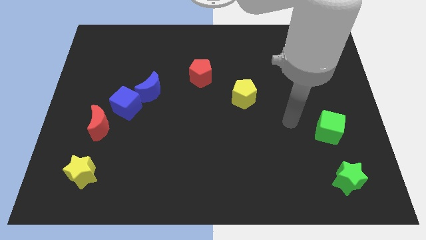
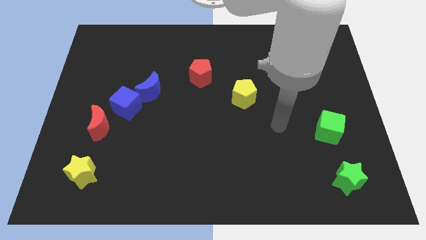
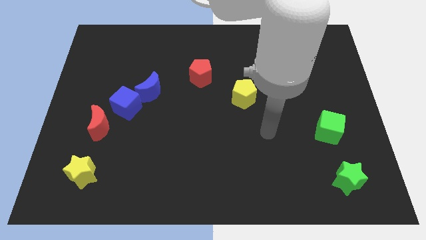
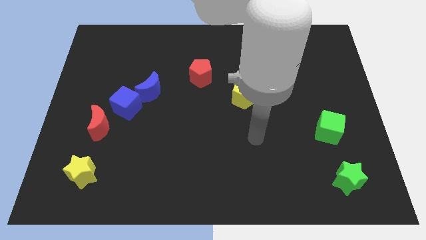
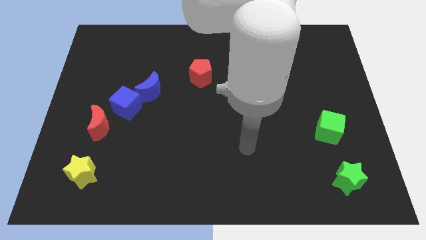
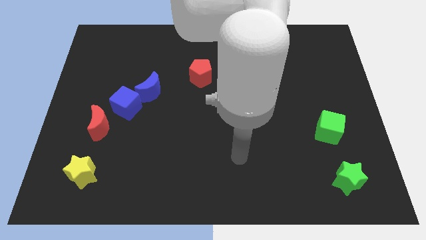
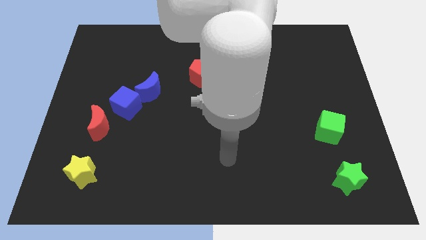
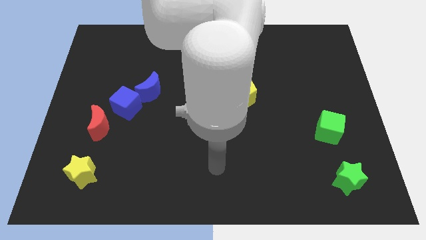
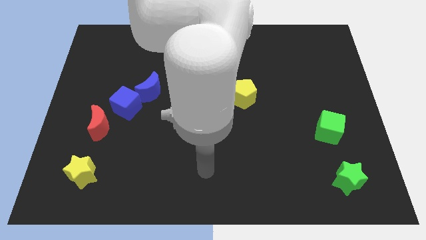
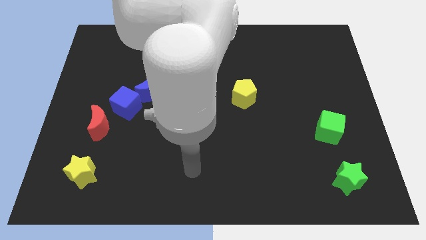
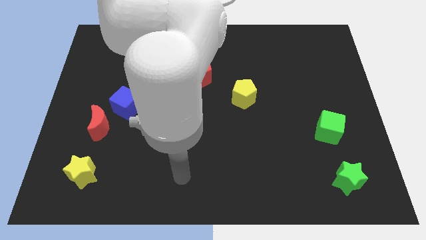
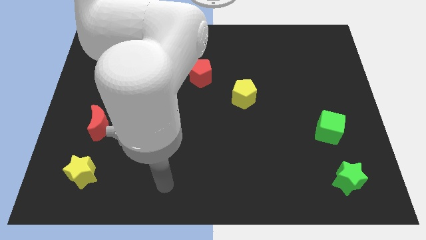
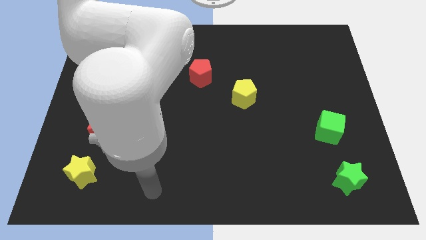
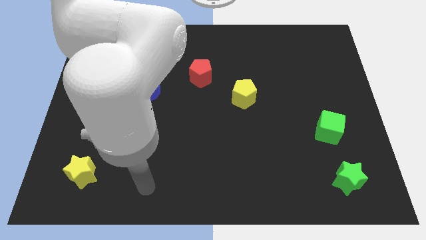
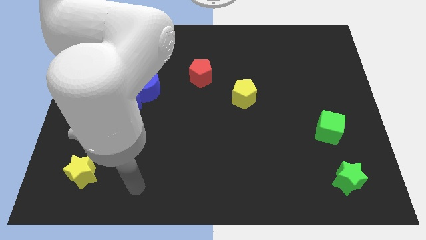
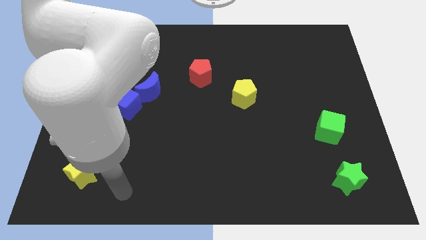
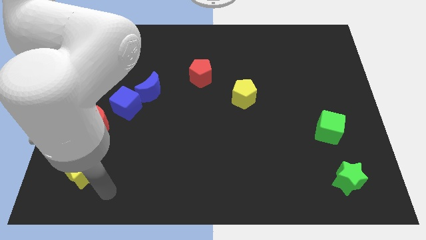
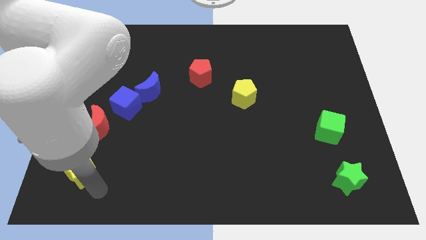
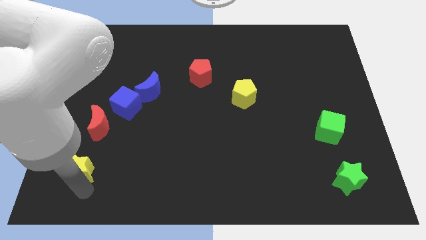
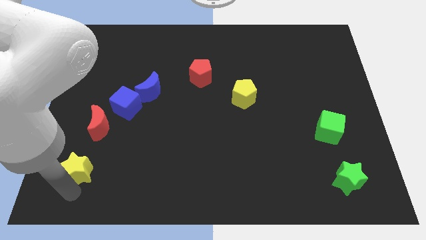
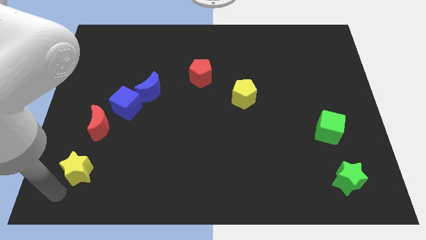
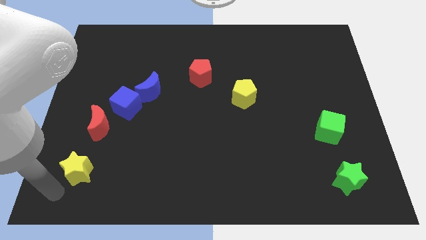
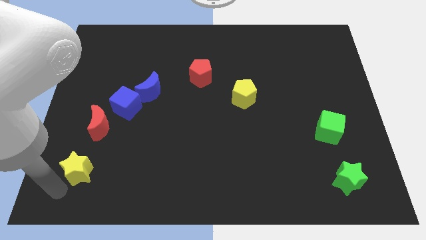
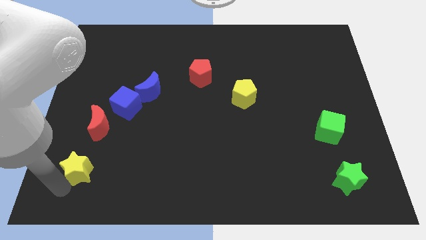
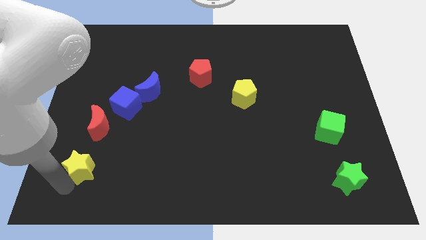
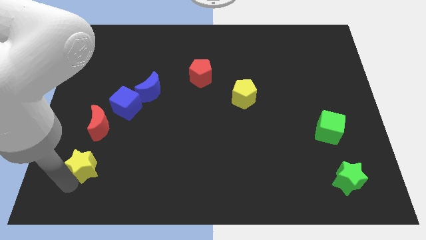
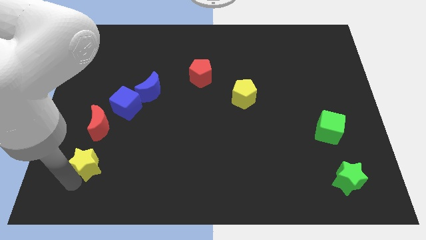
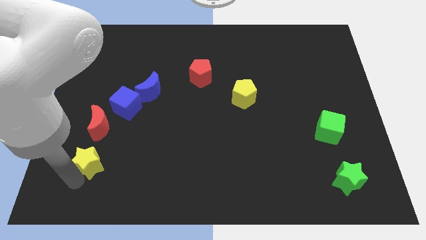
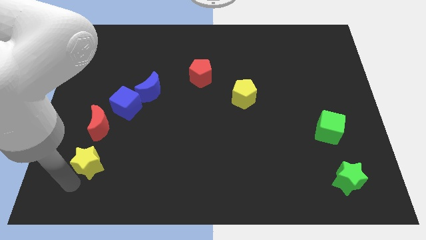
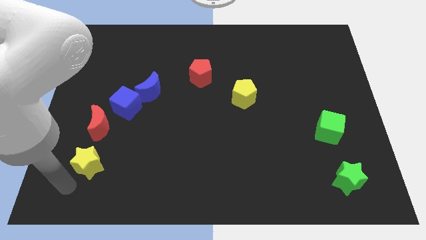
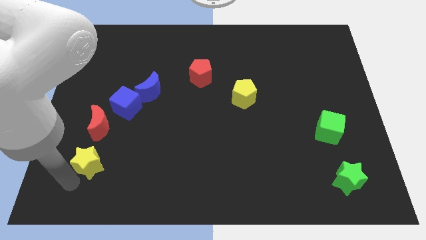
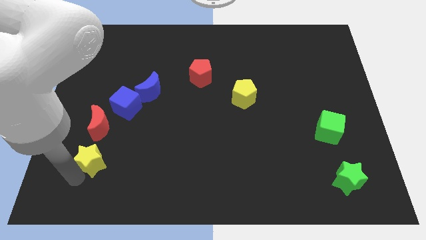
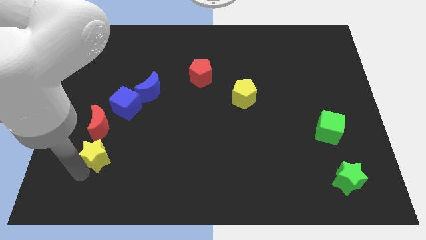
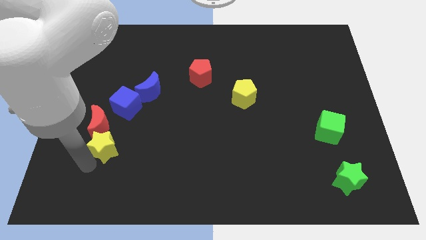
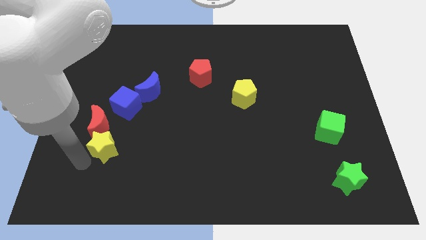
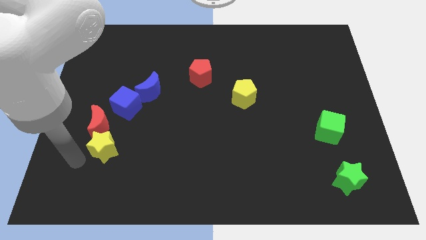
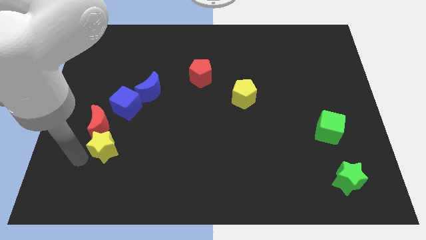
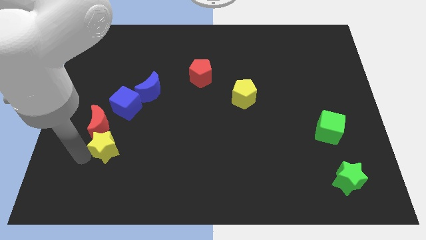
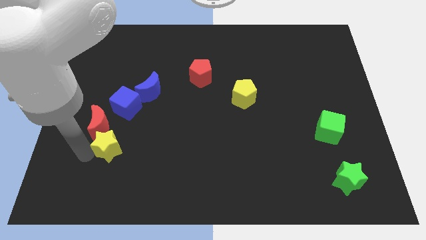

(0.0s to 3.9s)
slightly push the yellow star upwards and to the right

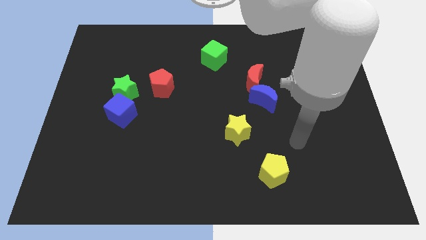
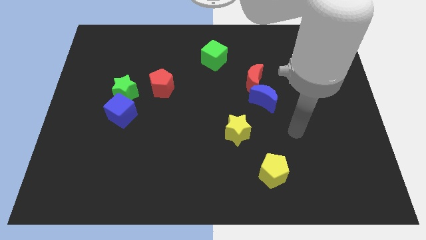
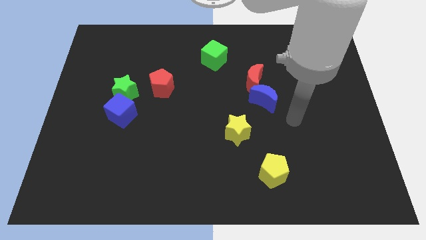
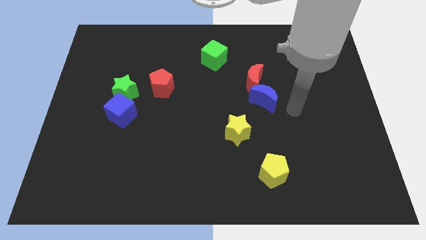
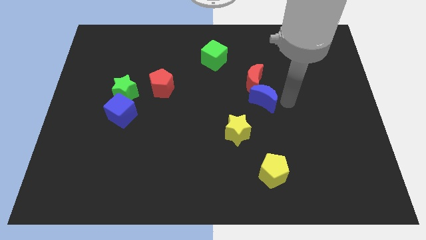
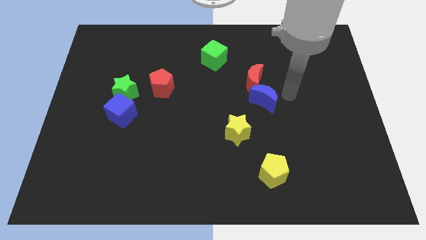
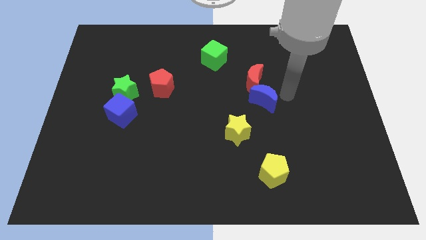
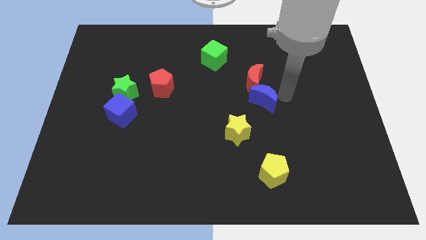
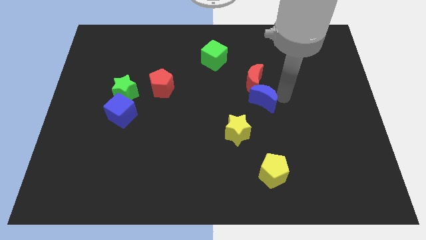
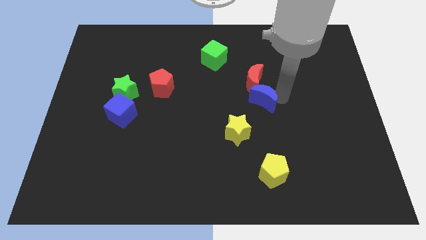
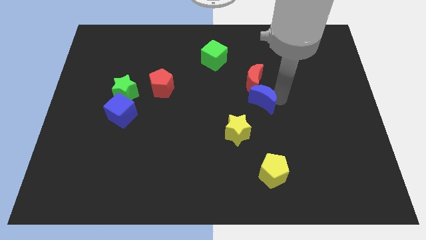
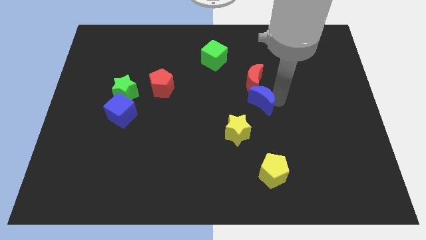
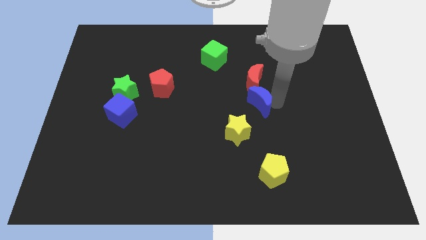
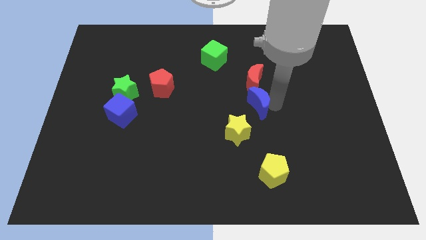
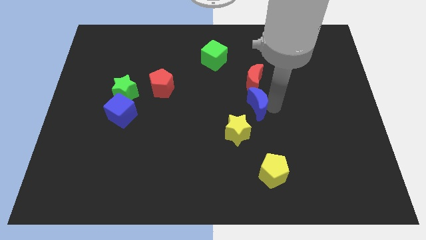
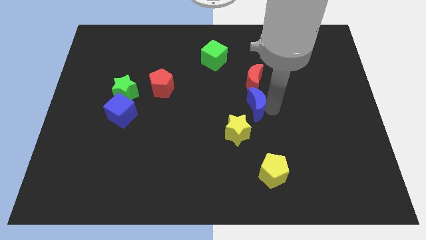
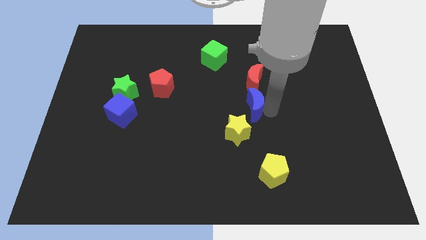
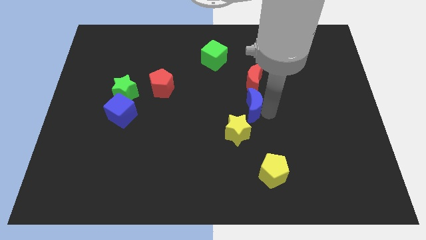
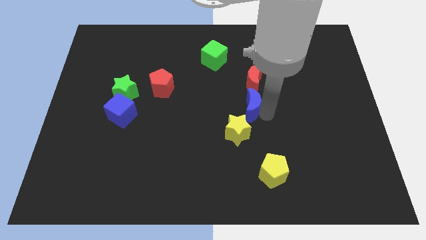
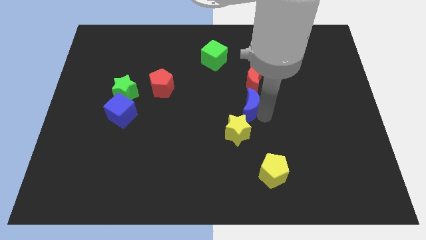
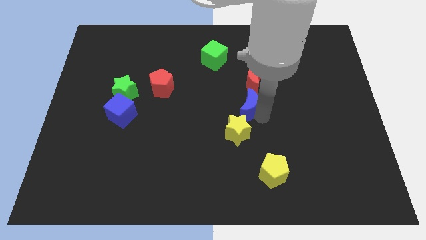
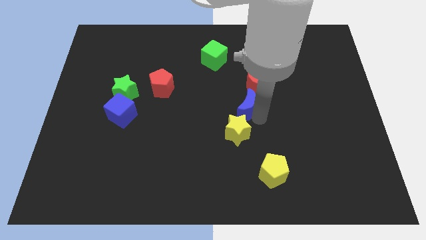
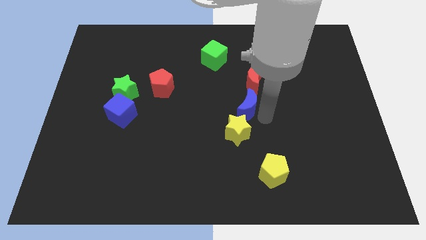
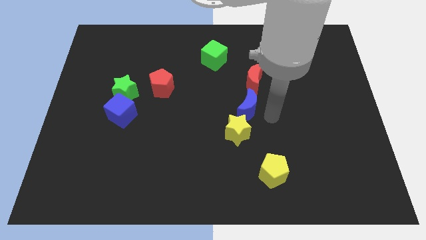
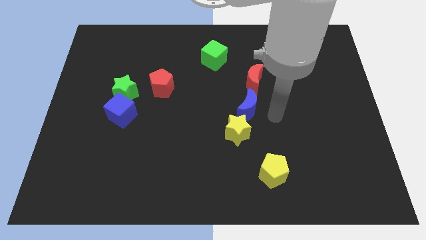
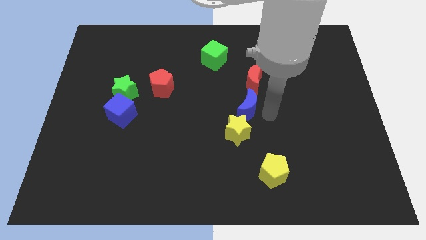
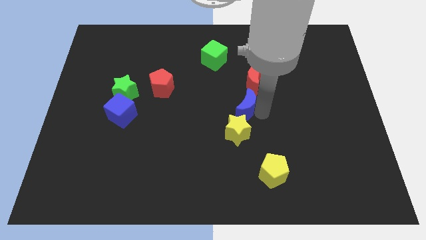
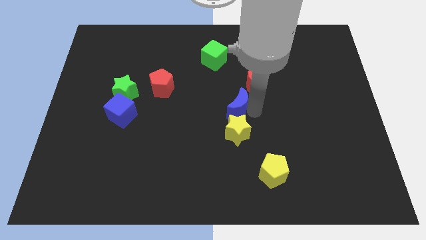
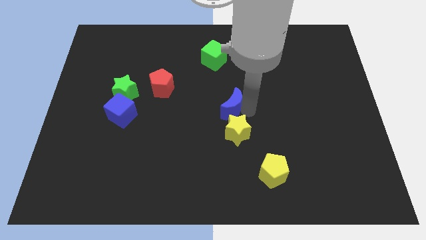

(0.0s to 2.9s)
slightly move the blue moon to the left

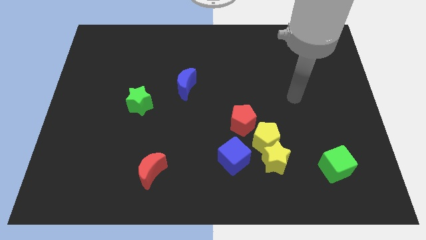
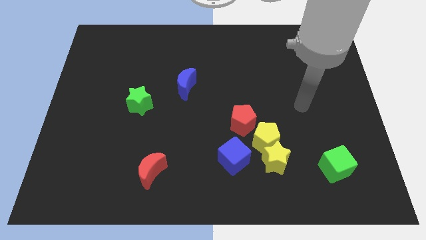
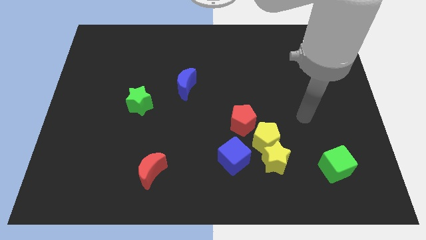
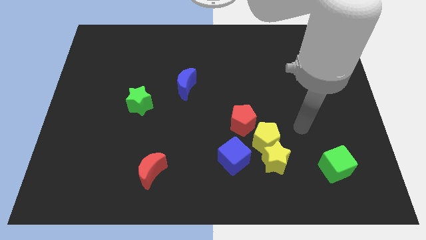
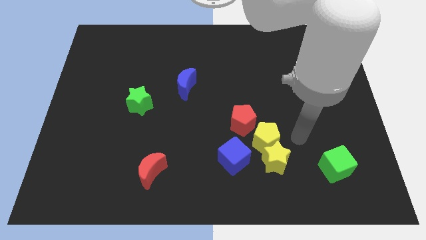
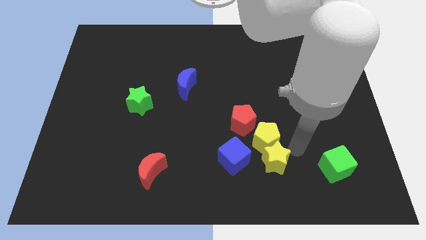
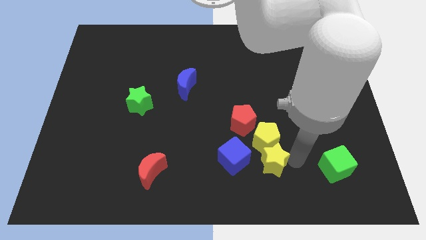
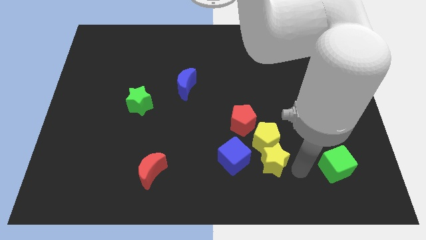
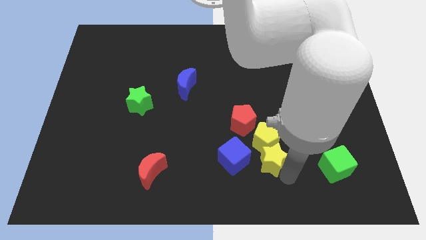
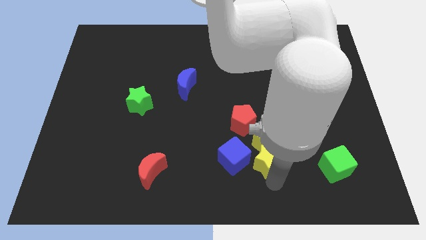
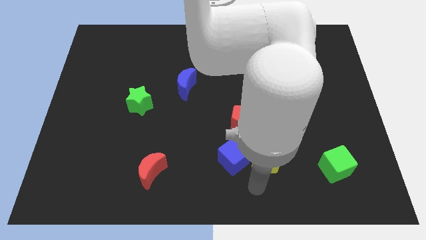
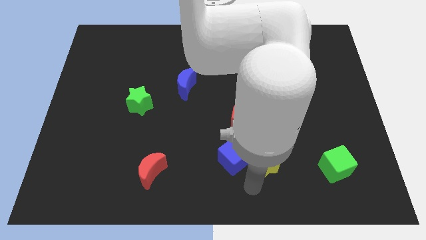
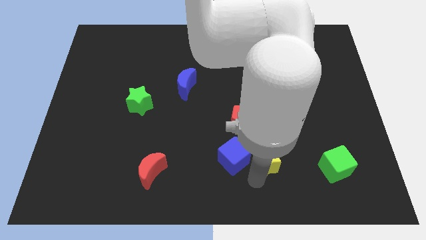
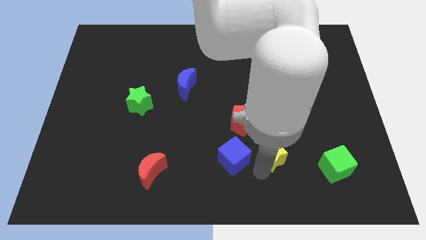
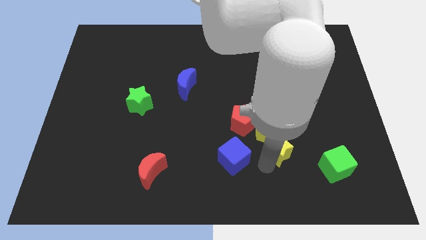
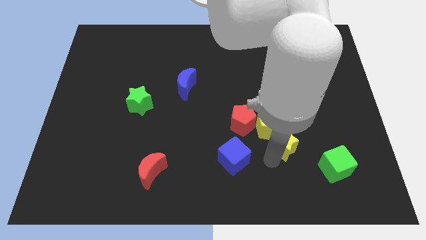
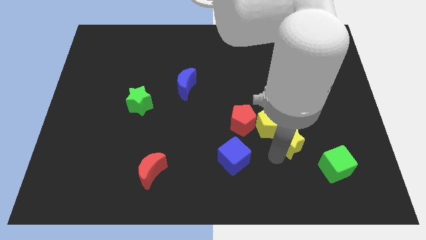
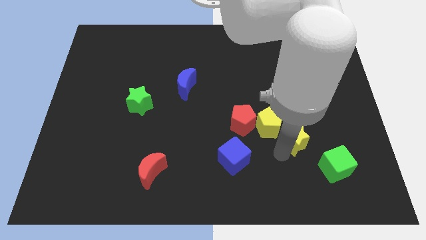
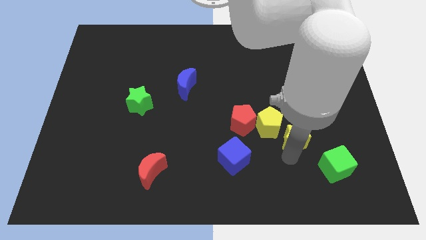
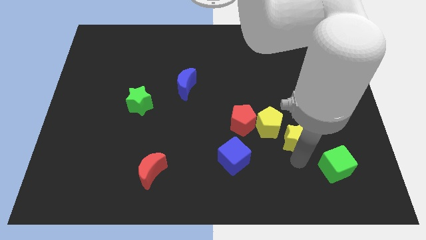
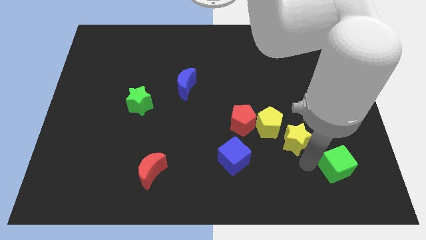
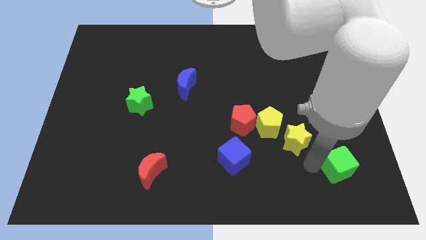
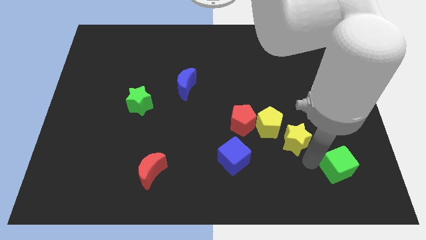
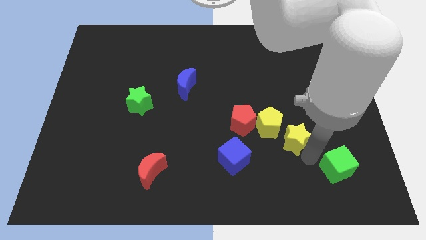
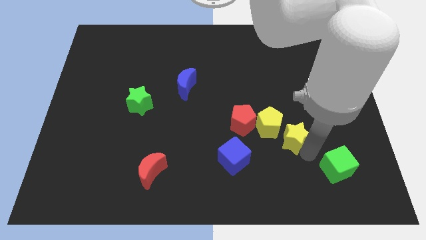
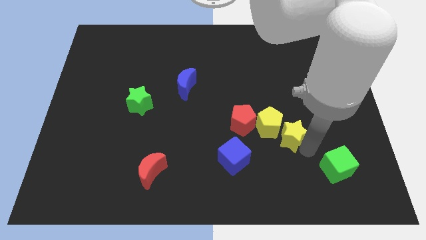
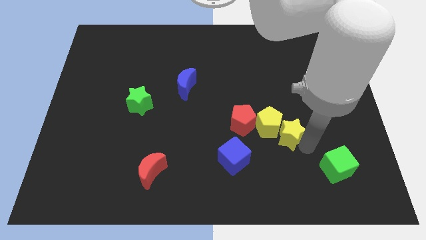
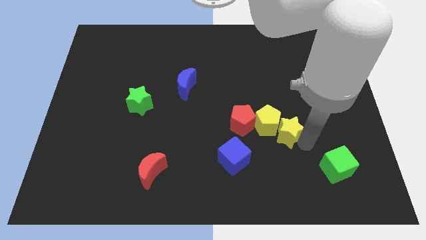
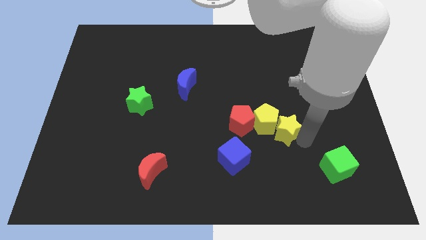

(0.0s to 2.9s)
push the yellow star up a little bit
